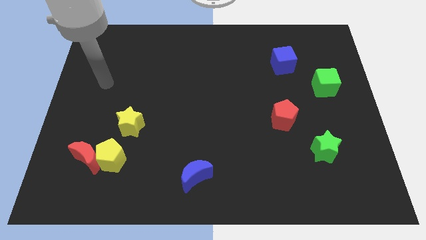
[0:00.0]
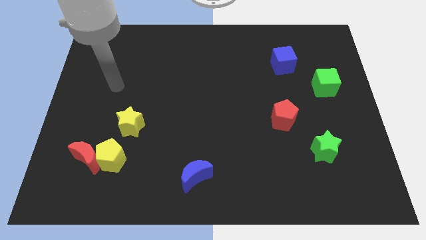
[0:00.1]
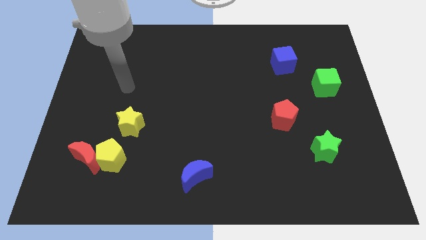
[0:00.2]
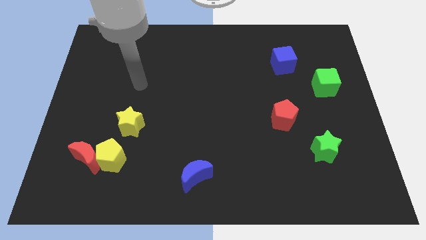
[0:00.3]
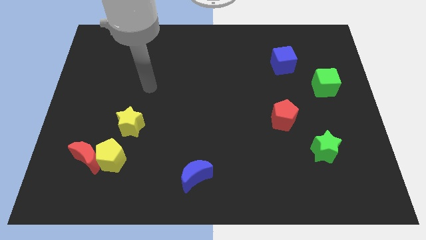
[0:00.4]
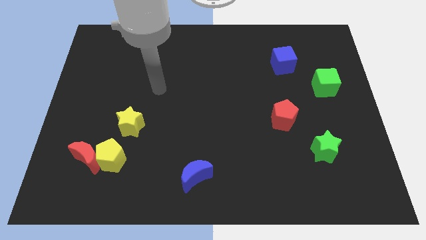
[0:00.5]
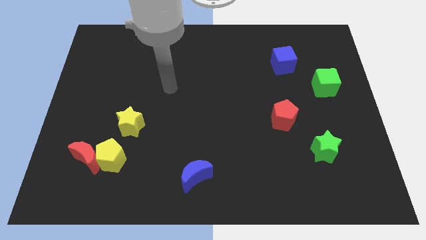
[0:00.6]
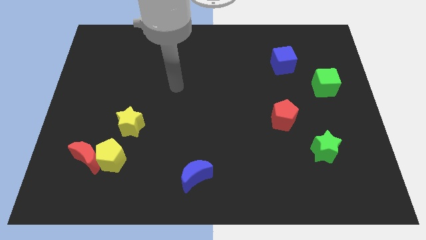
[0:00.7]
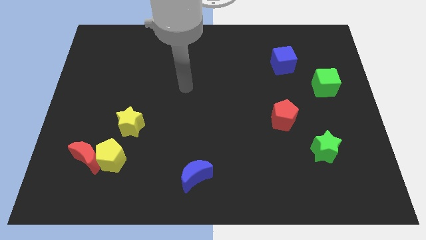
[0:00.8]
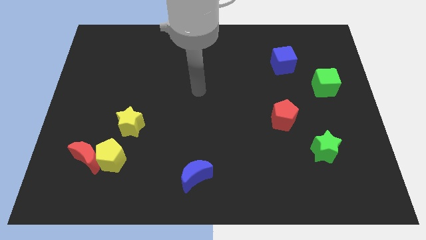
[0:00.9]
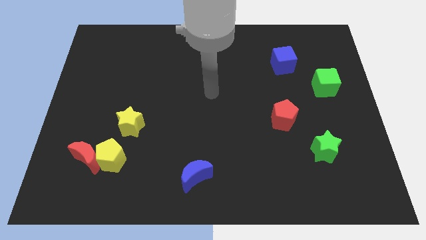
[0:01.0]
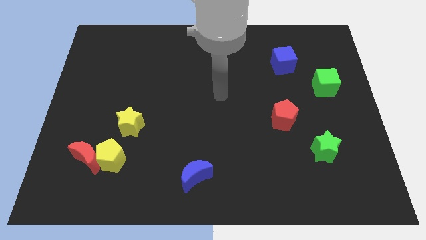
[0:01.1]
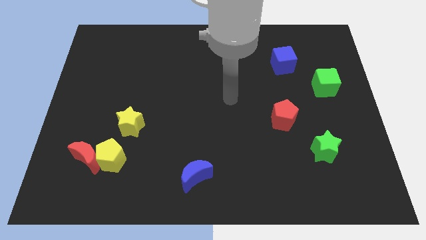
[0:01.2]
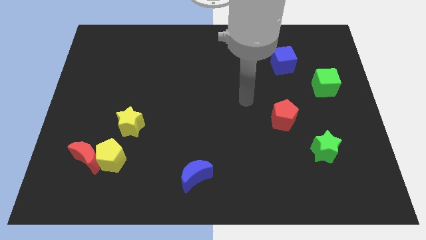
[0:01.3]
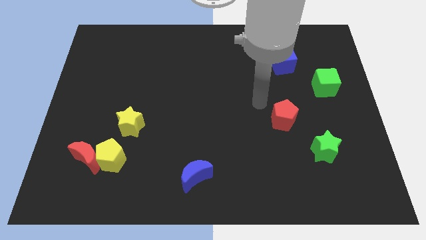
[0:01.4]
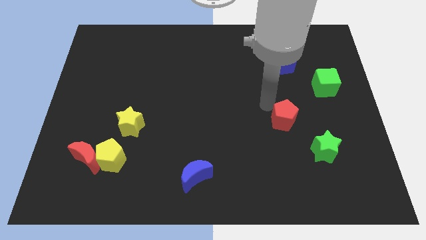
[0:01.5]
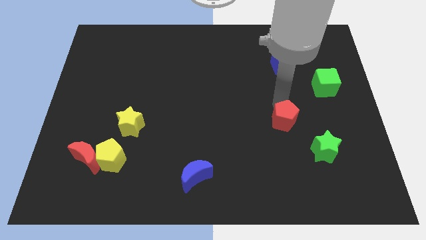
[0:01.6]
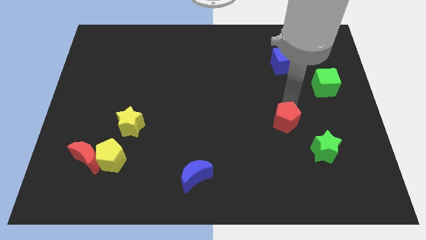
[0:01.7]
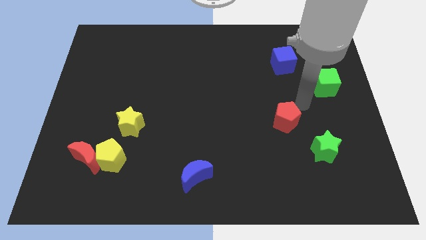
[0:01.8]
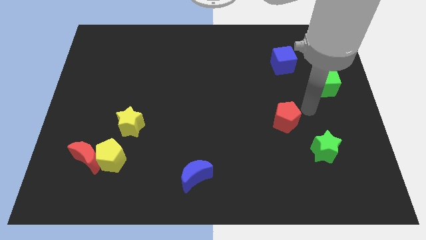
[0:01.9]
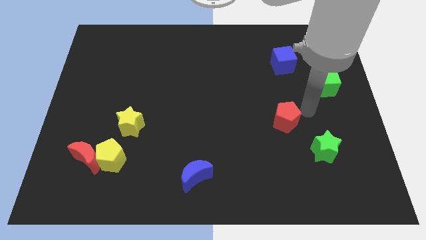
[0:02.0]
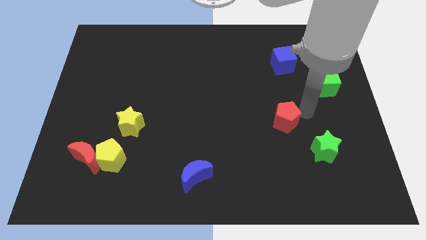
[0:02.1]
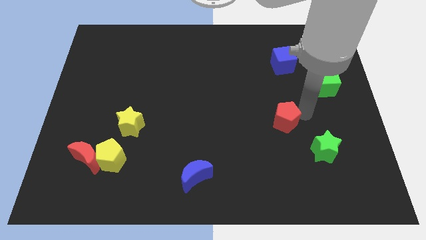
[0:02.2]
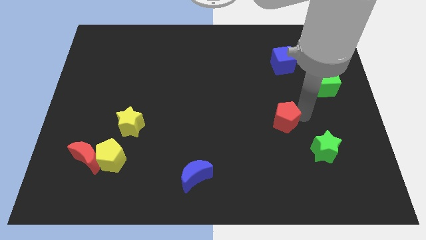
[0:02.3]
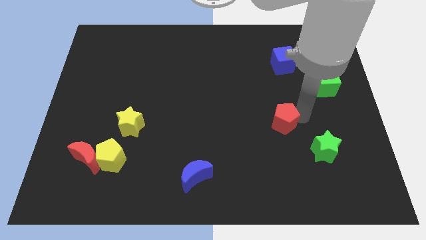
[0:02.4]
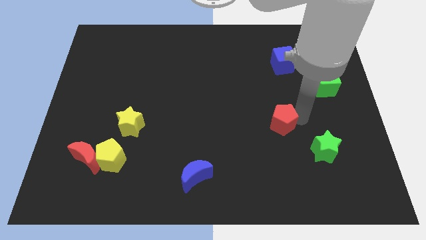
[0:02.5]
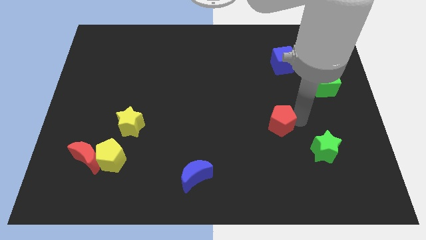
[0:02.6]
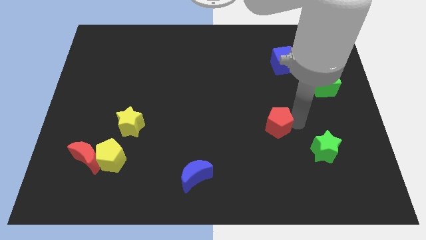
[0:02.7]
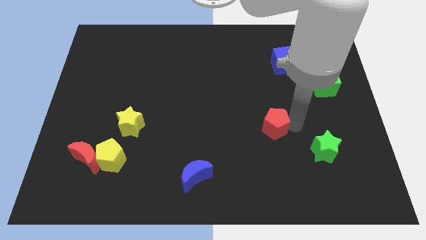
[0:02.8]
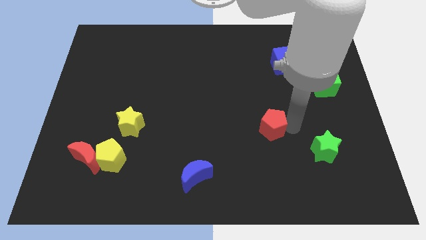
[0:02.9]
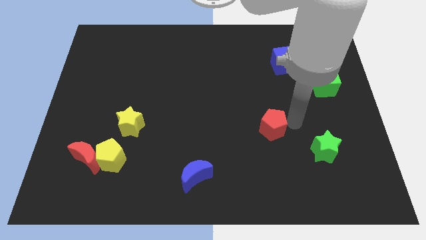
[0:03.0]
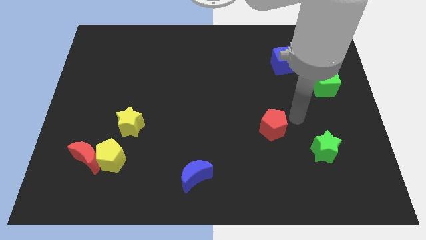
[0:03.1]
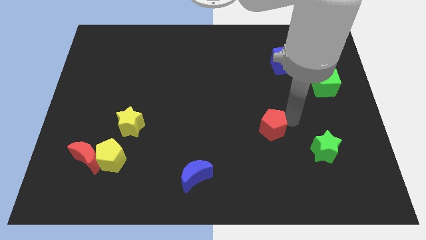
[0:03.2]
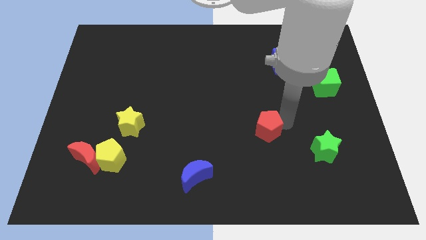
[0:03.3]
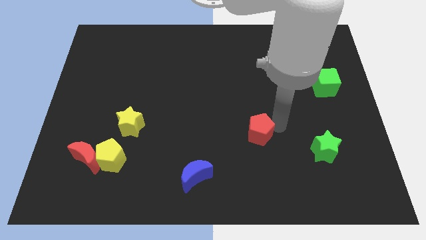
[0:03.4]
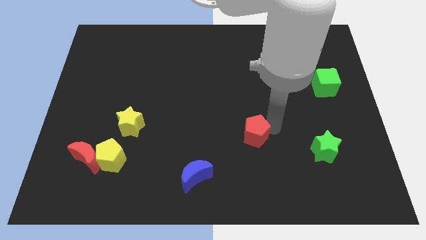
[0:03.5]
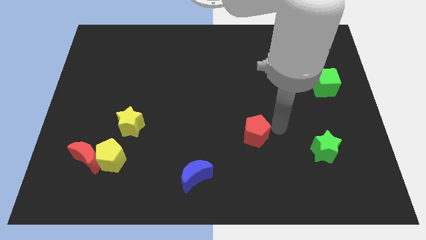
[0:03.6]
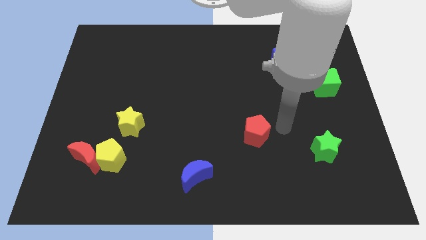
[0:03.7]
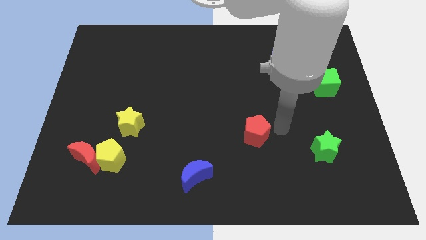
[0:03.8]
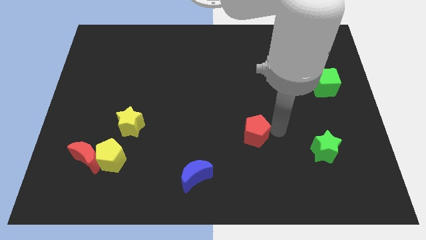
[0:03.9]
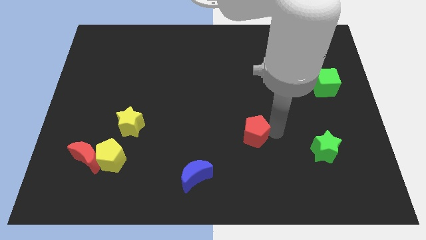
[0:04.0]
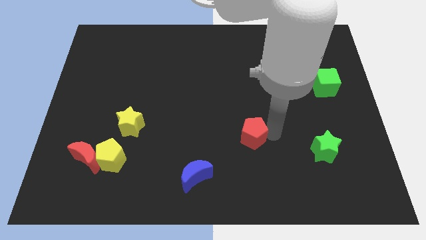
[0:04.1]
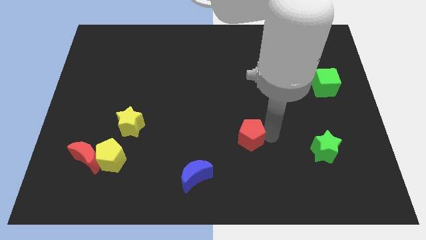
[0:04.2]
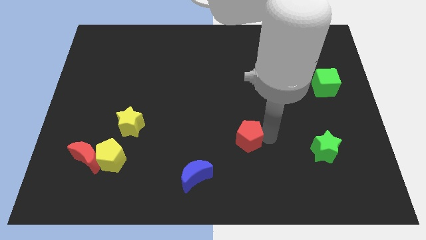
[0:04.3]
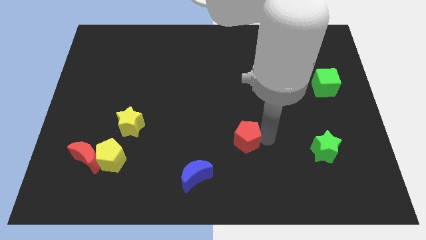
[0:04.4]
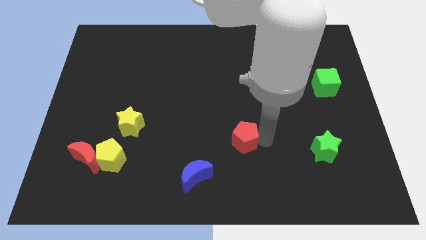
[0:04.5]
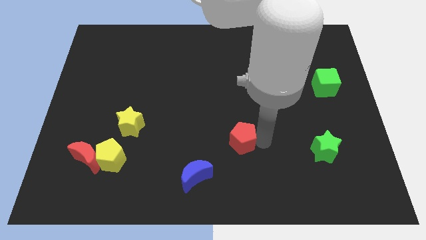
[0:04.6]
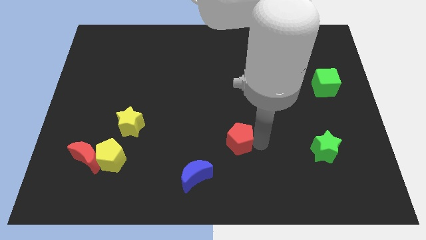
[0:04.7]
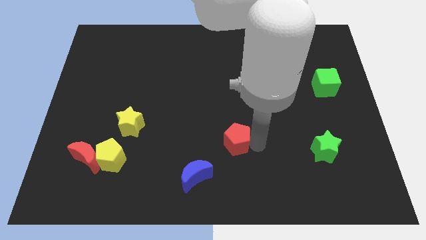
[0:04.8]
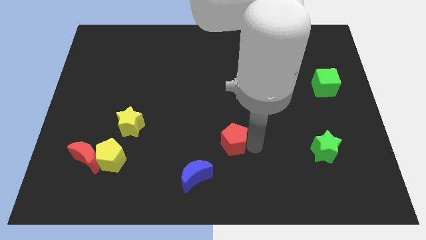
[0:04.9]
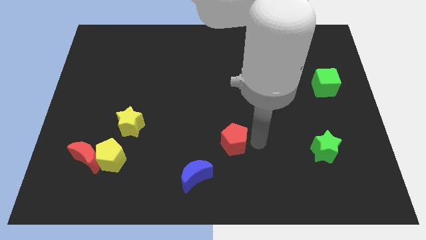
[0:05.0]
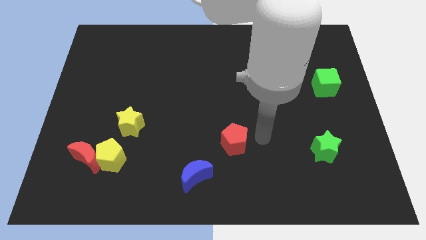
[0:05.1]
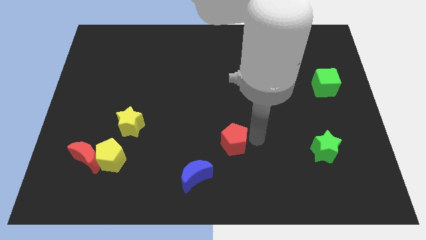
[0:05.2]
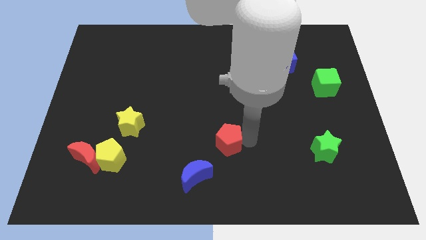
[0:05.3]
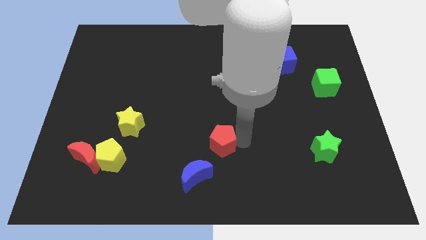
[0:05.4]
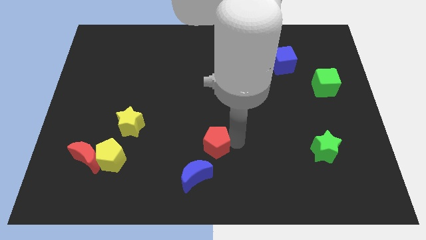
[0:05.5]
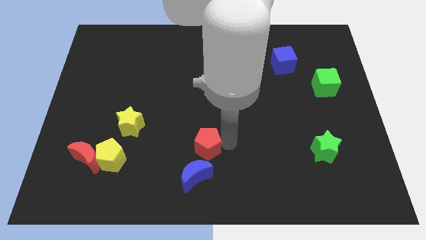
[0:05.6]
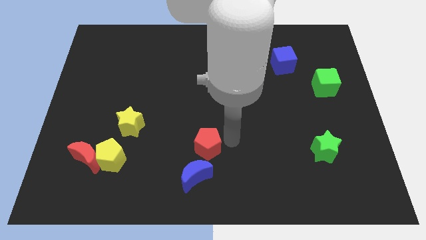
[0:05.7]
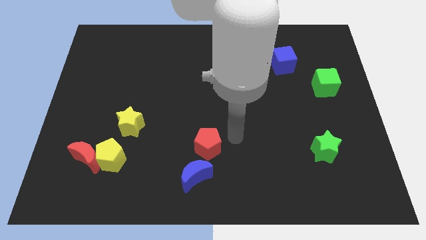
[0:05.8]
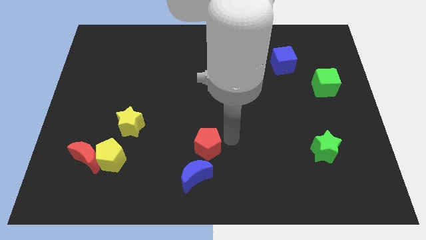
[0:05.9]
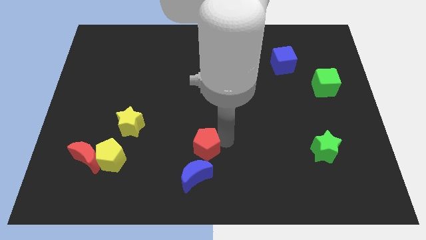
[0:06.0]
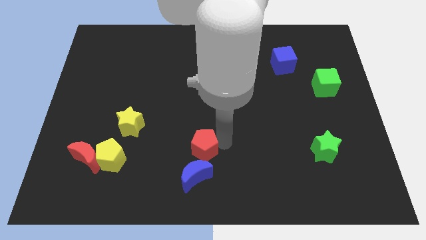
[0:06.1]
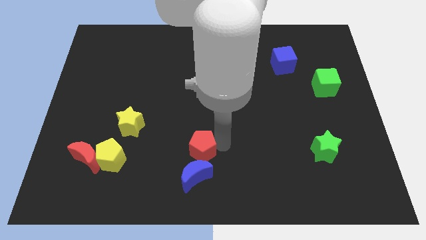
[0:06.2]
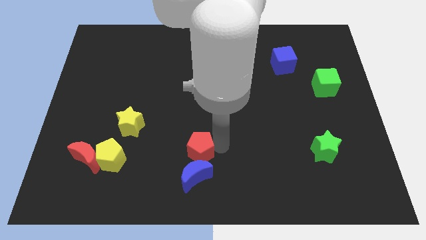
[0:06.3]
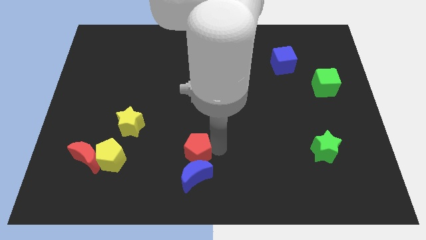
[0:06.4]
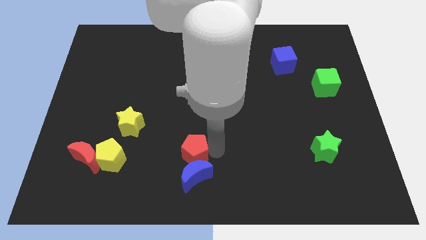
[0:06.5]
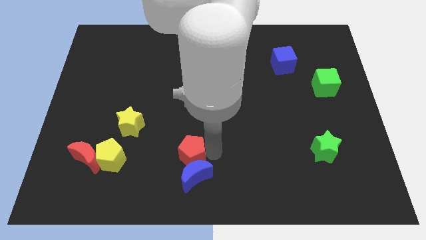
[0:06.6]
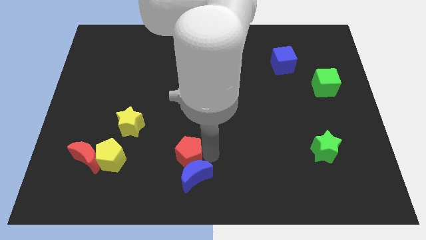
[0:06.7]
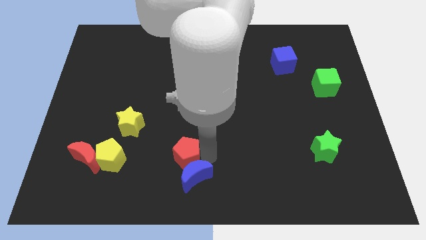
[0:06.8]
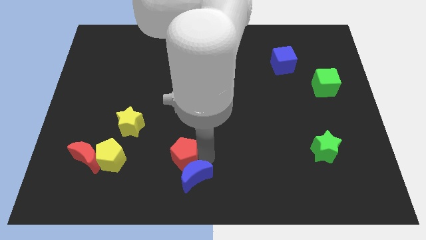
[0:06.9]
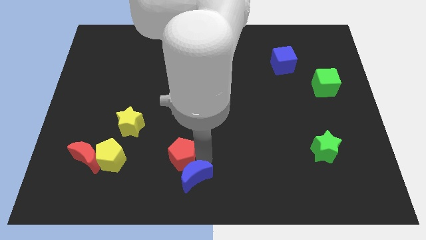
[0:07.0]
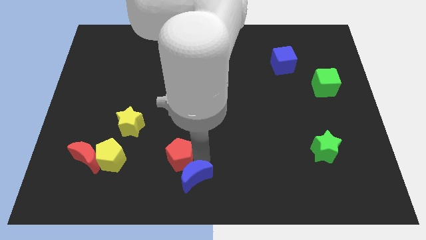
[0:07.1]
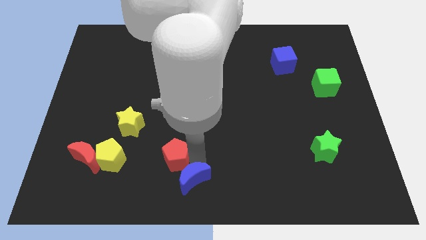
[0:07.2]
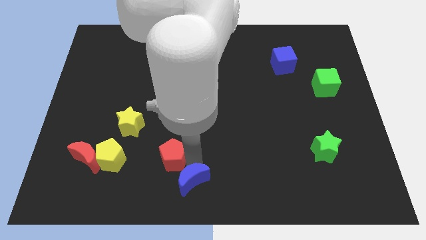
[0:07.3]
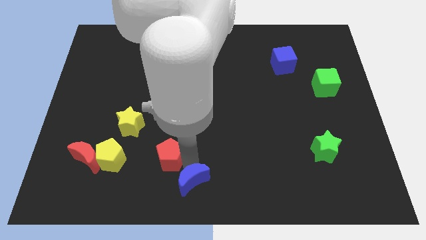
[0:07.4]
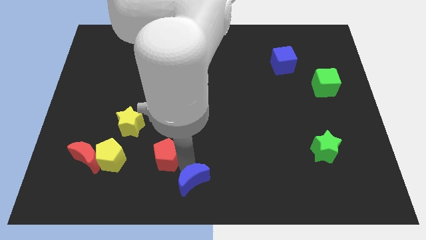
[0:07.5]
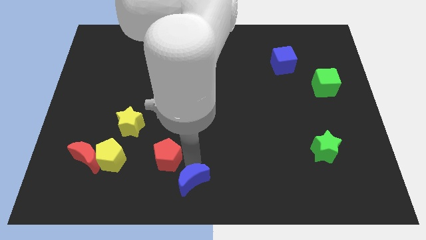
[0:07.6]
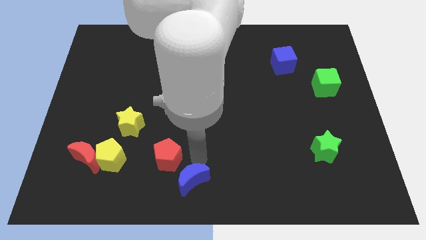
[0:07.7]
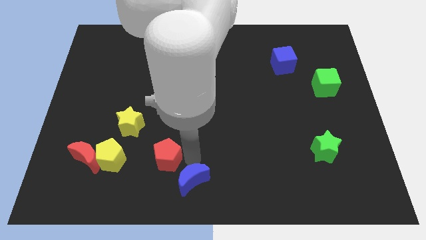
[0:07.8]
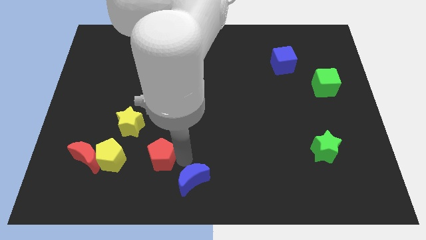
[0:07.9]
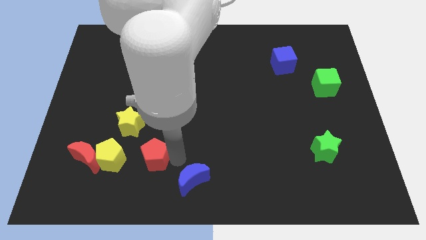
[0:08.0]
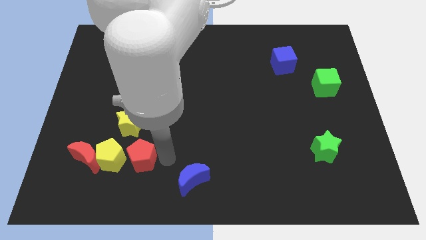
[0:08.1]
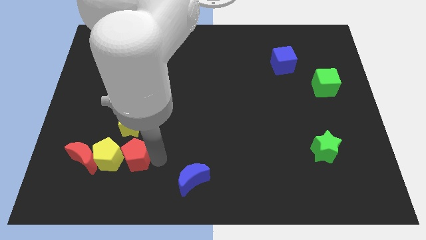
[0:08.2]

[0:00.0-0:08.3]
slide the red pentagon next to the yellow pentagon
